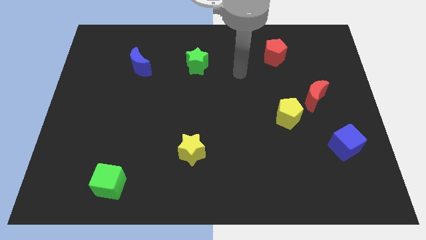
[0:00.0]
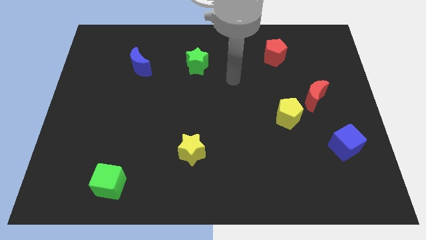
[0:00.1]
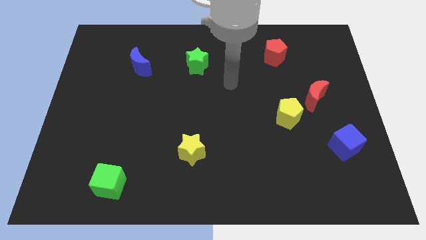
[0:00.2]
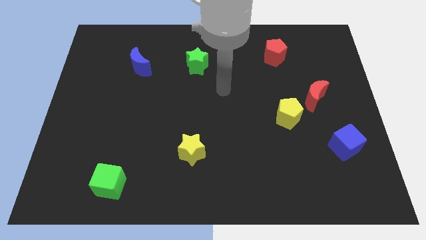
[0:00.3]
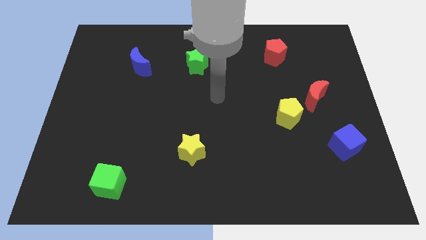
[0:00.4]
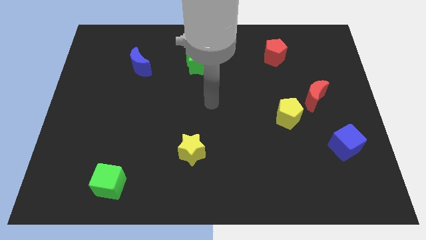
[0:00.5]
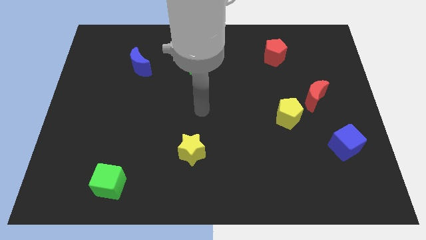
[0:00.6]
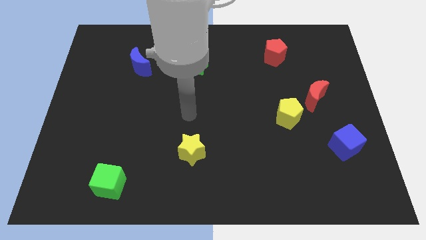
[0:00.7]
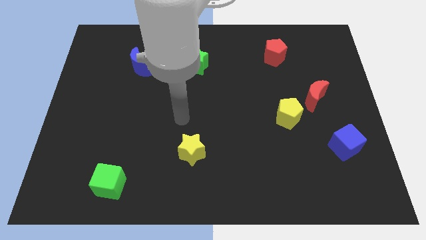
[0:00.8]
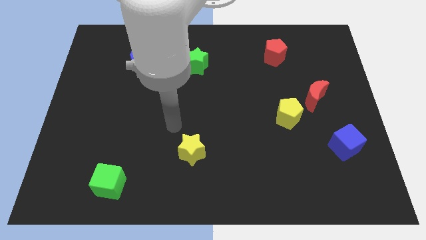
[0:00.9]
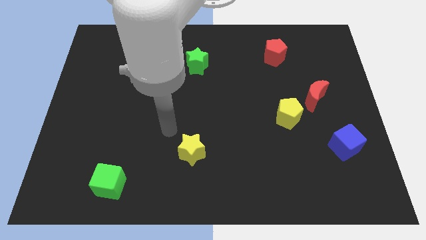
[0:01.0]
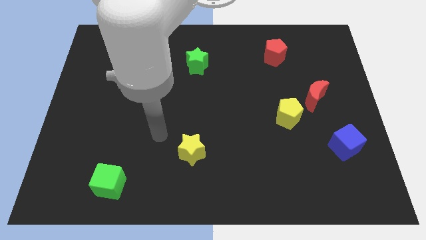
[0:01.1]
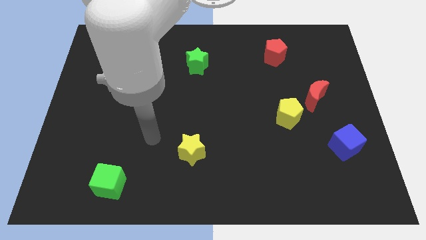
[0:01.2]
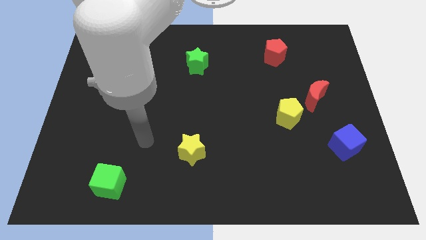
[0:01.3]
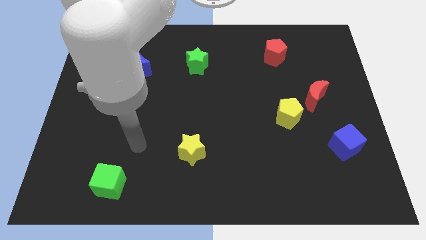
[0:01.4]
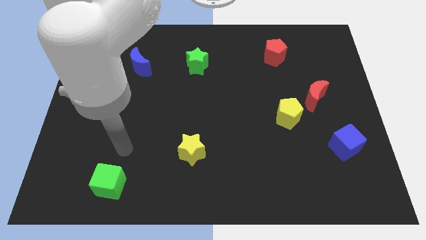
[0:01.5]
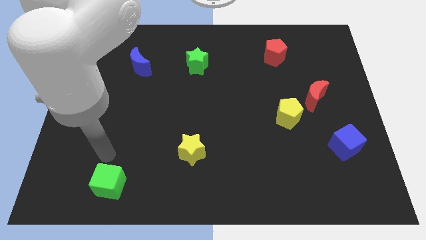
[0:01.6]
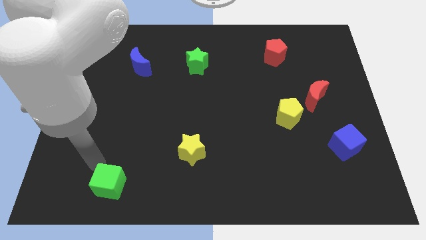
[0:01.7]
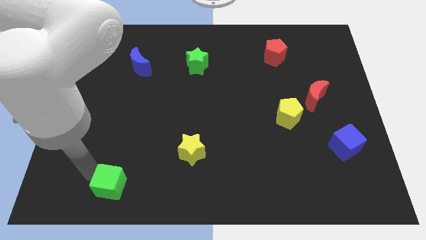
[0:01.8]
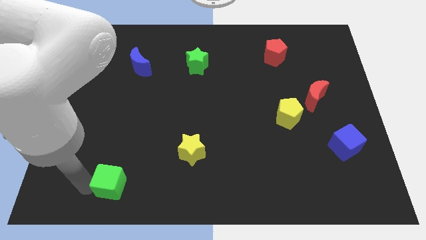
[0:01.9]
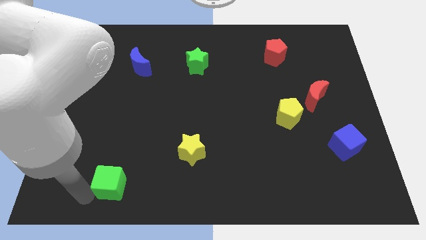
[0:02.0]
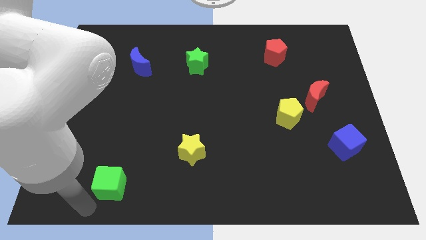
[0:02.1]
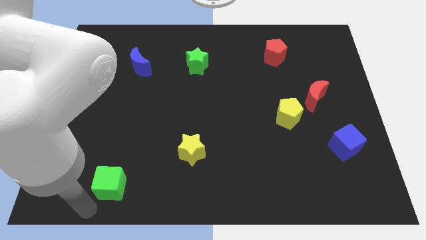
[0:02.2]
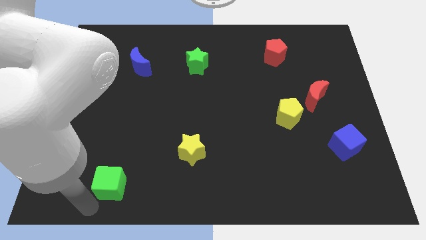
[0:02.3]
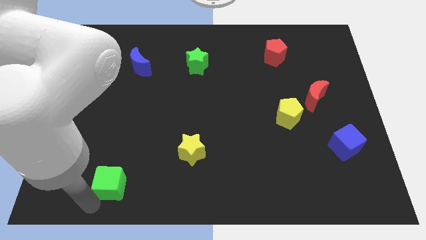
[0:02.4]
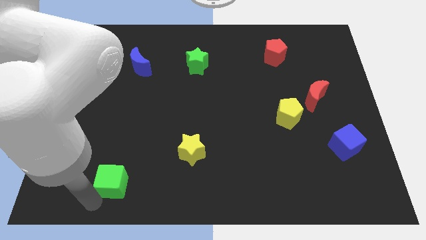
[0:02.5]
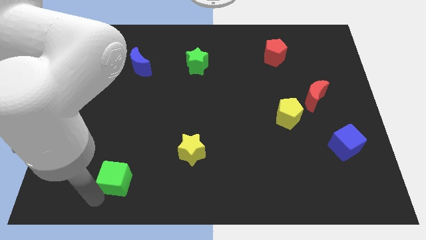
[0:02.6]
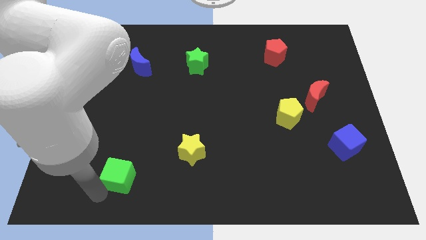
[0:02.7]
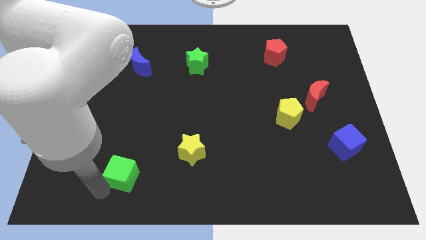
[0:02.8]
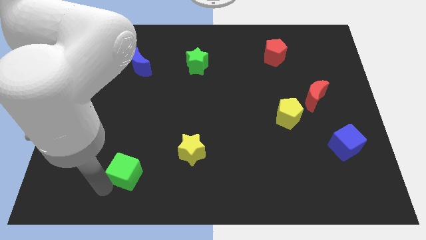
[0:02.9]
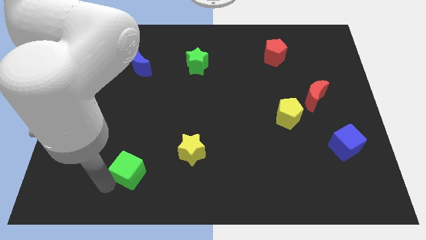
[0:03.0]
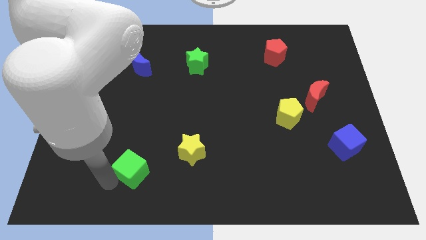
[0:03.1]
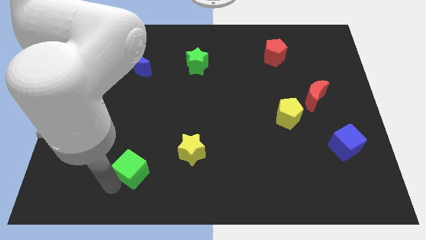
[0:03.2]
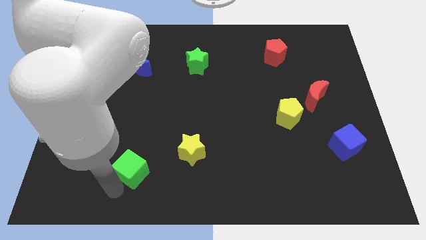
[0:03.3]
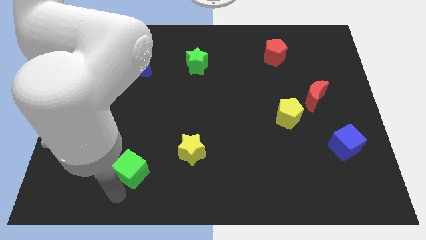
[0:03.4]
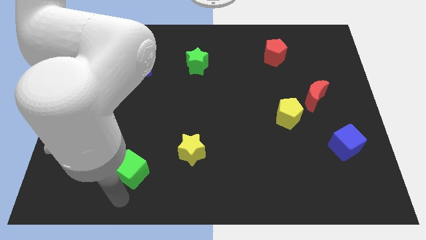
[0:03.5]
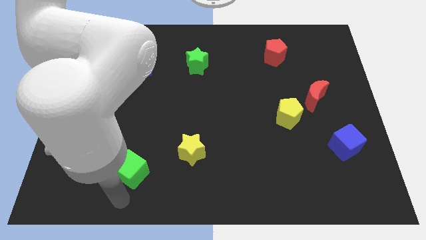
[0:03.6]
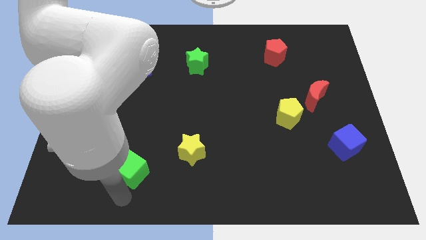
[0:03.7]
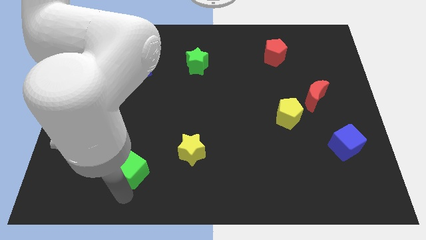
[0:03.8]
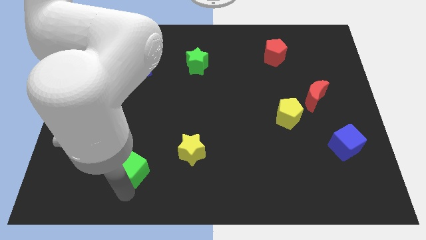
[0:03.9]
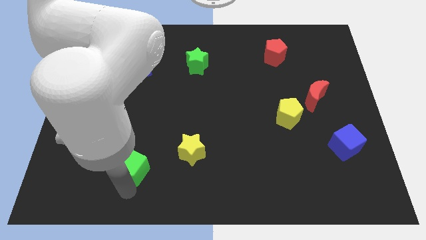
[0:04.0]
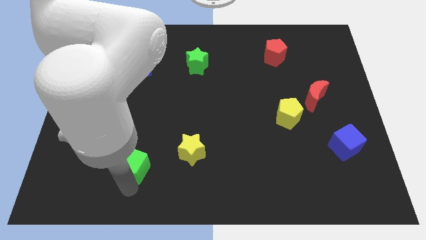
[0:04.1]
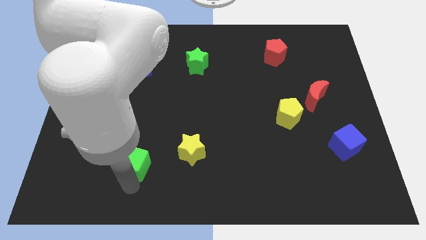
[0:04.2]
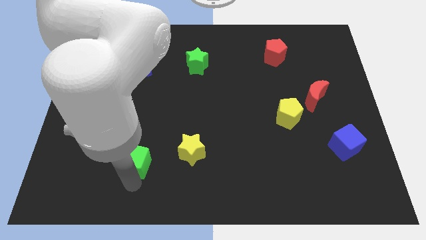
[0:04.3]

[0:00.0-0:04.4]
move the green cube a little bit upwards and right diagonally

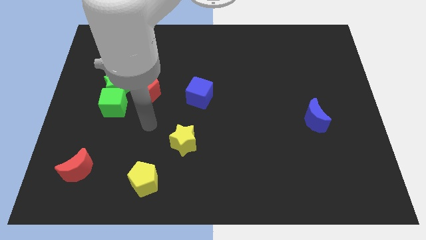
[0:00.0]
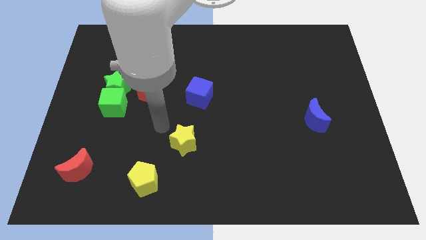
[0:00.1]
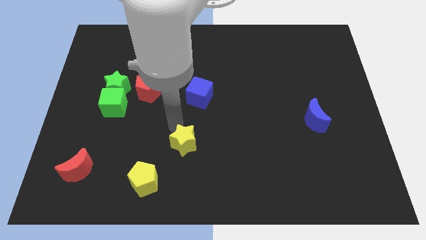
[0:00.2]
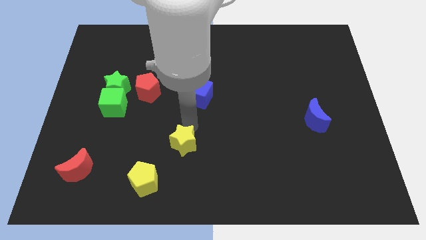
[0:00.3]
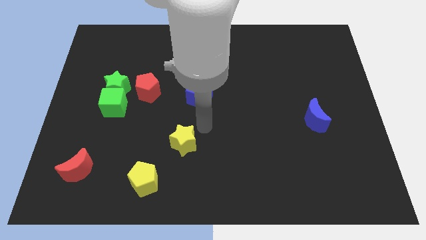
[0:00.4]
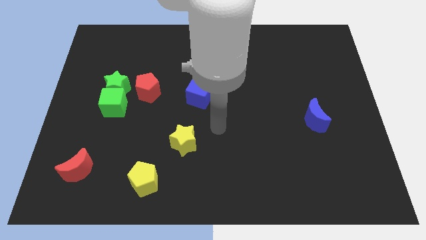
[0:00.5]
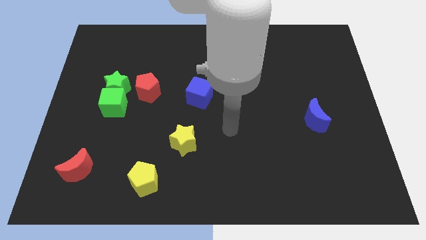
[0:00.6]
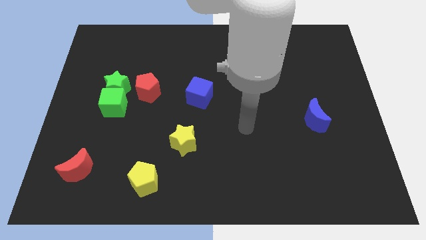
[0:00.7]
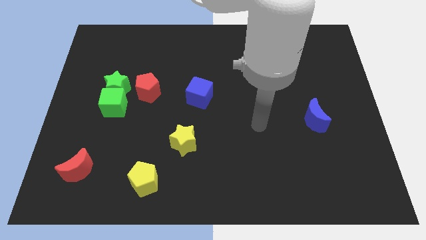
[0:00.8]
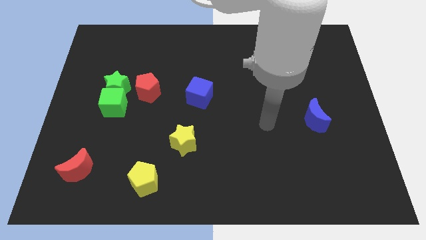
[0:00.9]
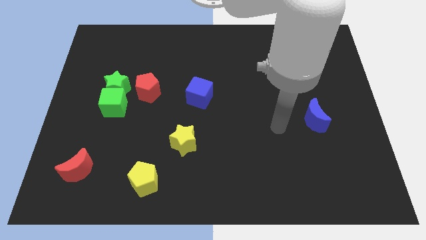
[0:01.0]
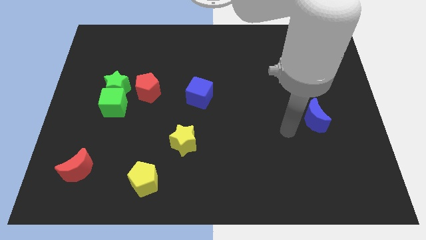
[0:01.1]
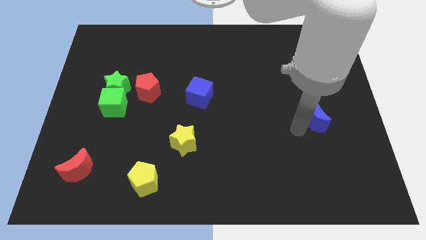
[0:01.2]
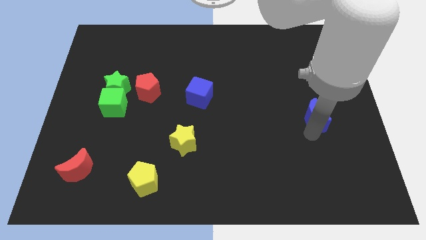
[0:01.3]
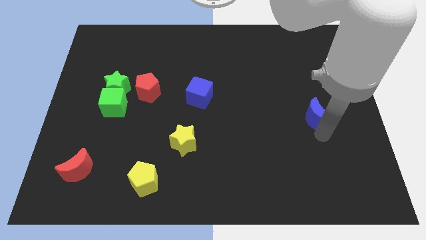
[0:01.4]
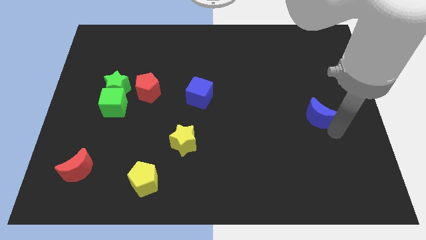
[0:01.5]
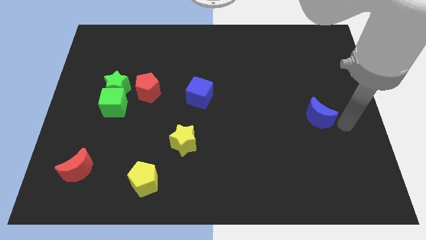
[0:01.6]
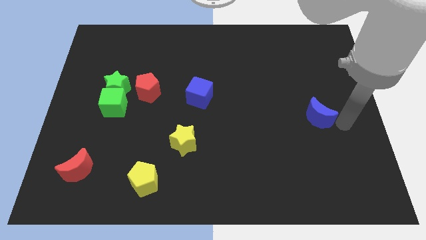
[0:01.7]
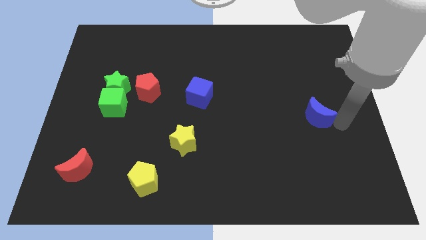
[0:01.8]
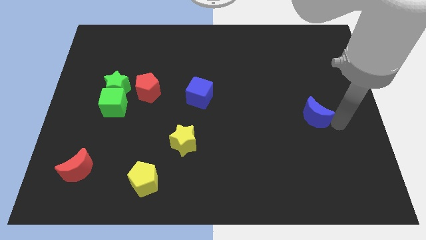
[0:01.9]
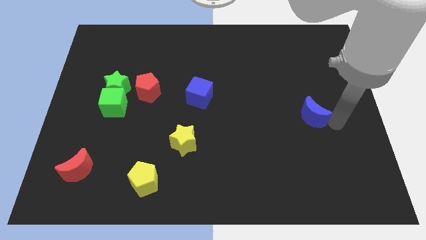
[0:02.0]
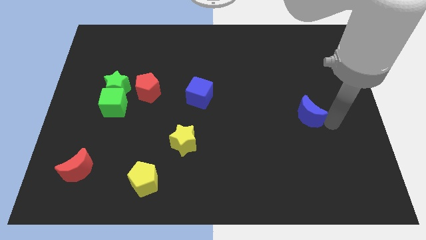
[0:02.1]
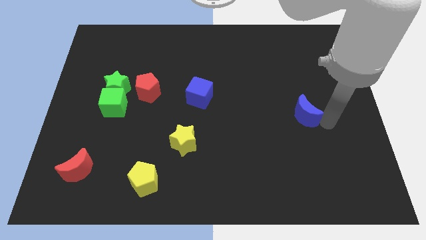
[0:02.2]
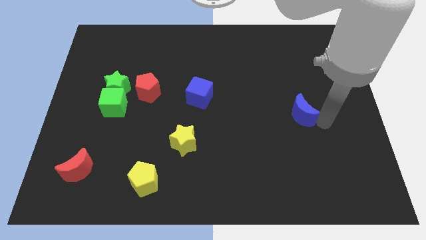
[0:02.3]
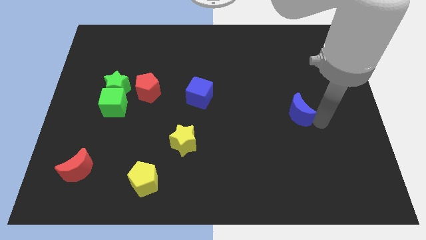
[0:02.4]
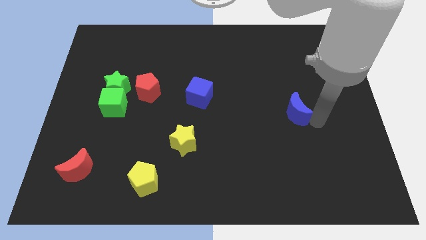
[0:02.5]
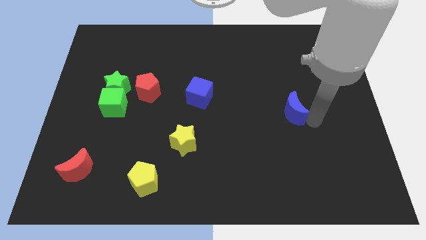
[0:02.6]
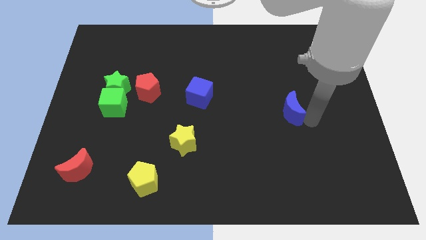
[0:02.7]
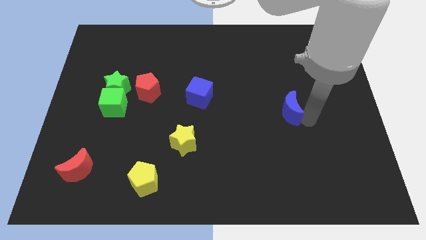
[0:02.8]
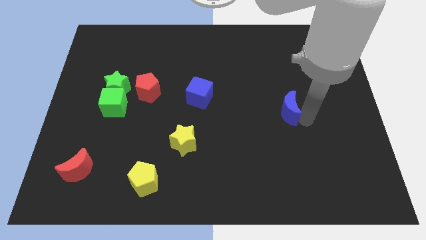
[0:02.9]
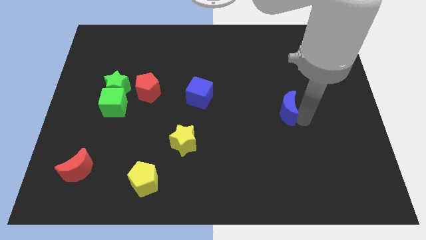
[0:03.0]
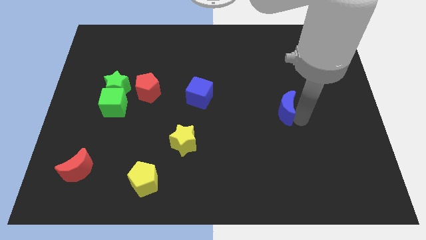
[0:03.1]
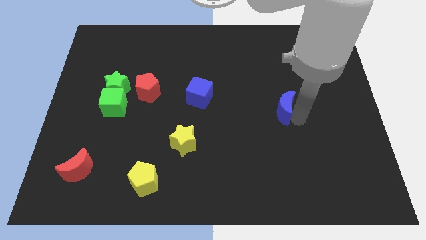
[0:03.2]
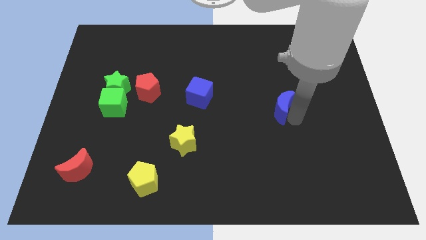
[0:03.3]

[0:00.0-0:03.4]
move the blue moon a bit diagonally upwards and to the left
